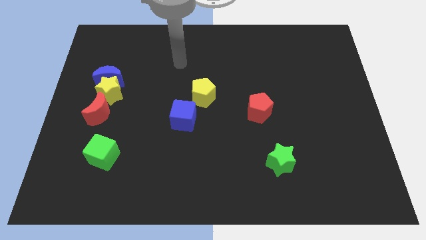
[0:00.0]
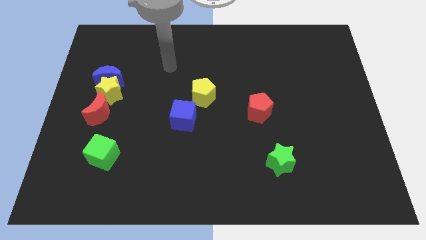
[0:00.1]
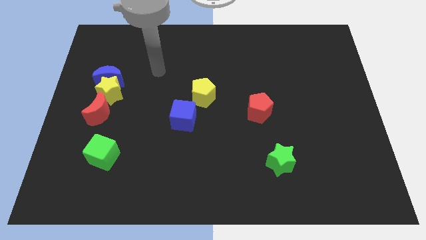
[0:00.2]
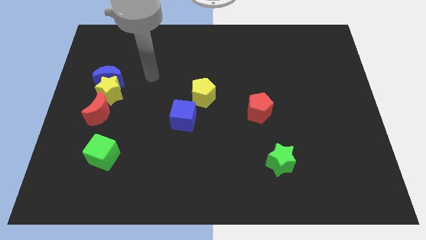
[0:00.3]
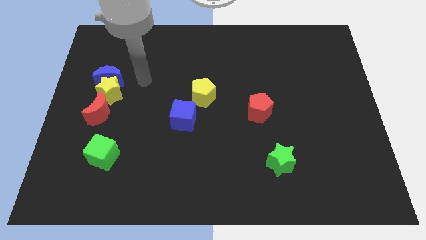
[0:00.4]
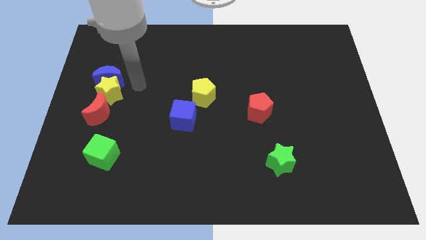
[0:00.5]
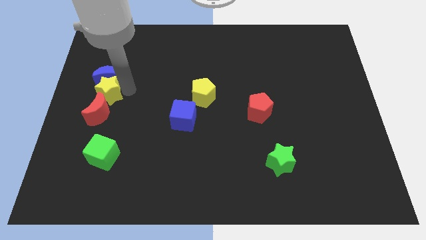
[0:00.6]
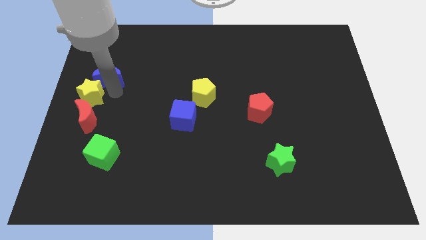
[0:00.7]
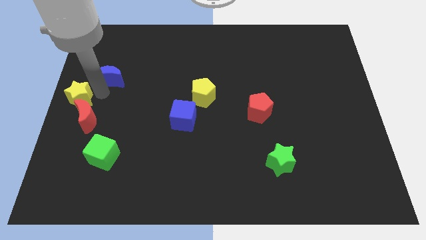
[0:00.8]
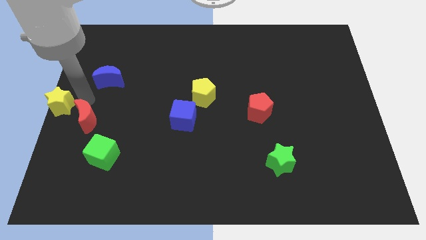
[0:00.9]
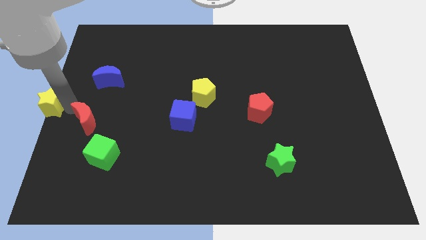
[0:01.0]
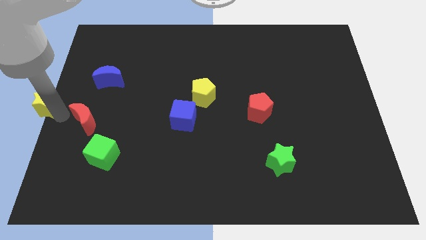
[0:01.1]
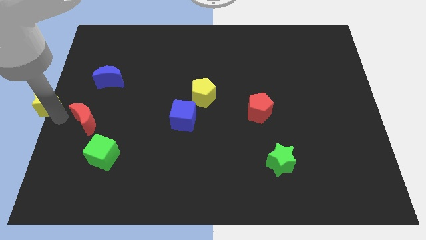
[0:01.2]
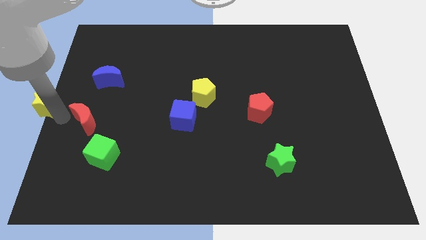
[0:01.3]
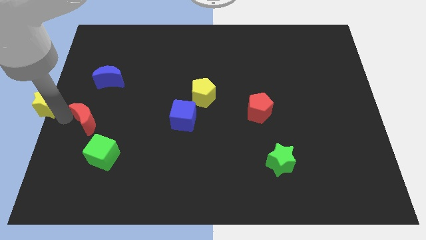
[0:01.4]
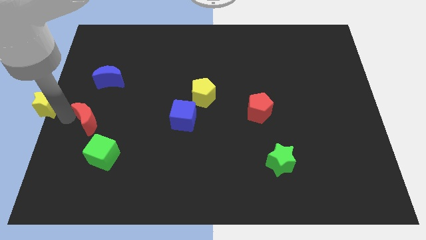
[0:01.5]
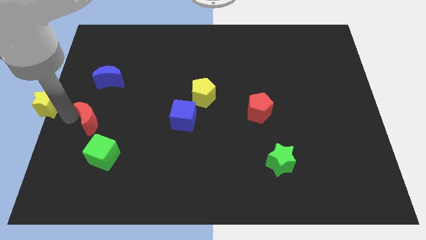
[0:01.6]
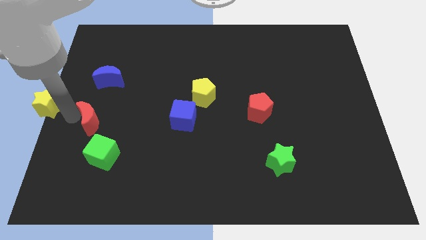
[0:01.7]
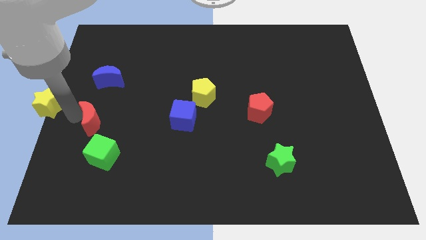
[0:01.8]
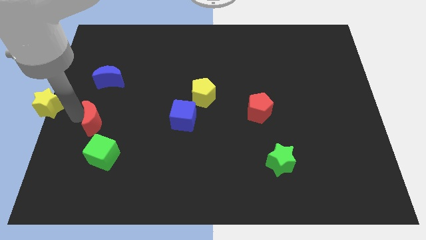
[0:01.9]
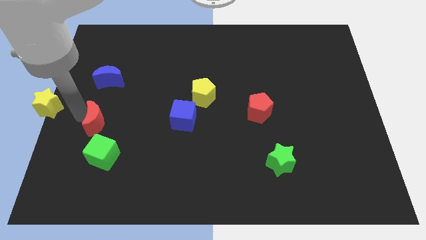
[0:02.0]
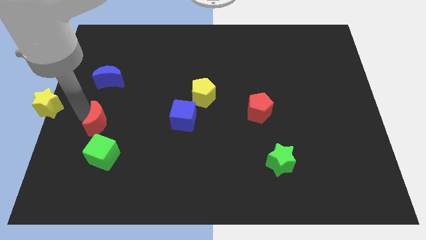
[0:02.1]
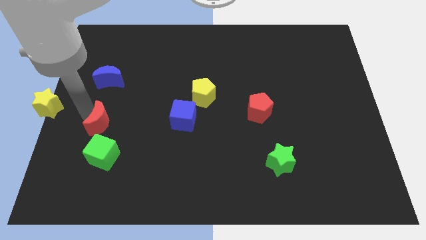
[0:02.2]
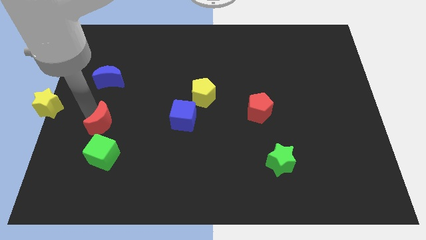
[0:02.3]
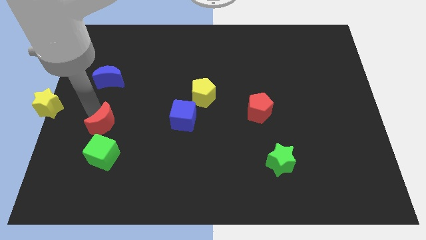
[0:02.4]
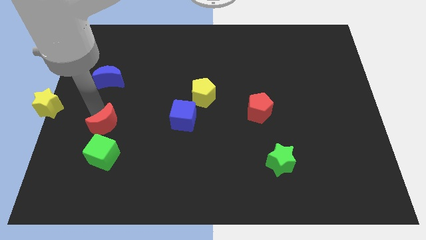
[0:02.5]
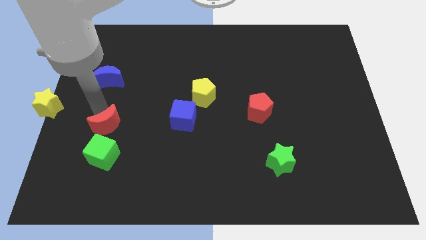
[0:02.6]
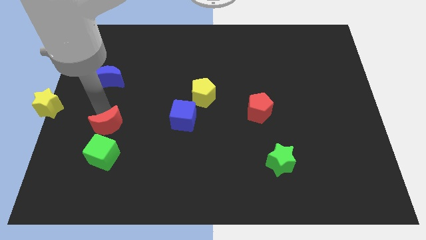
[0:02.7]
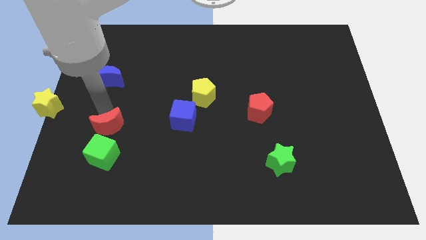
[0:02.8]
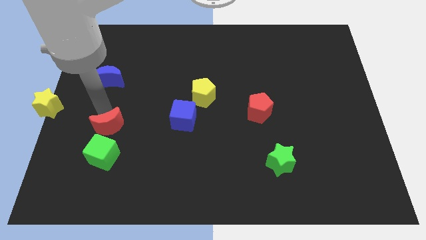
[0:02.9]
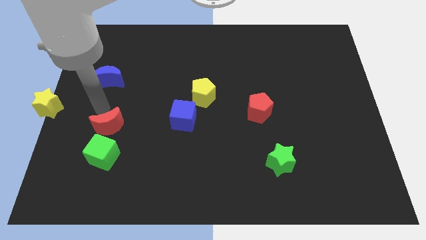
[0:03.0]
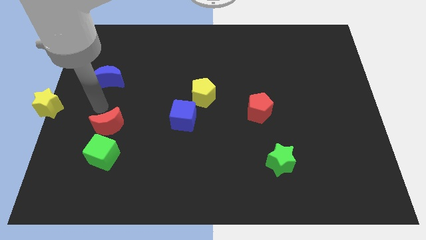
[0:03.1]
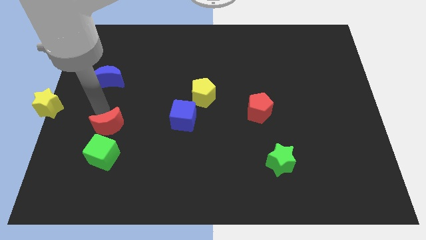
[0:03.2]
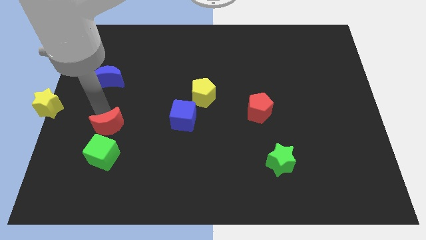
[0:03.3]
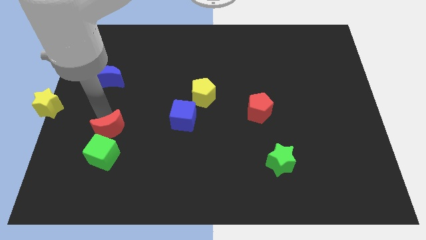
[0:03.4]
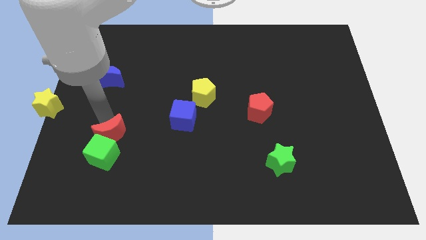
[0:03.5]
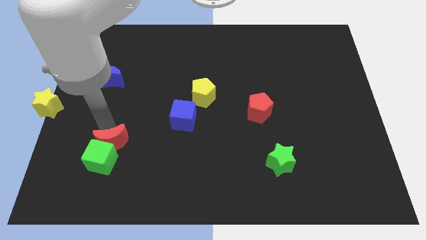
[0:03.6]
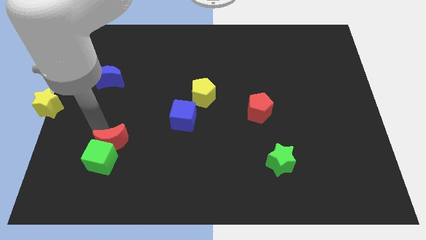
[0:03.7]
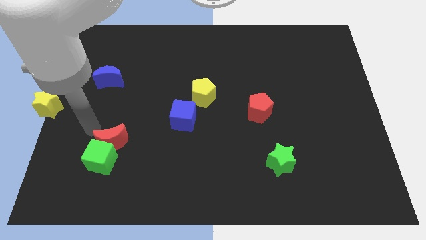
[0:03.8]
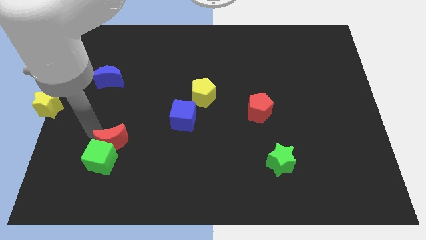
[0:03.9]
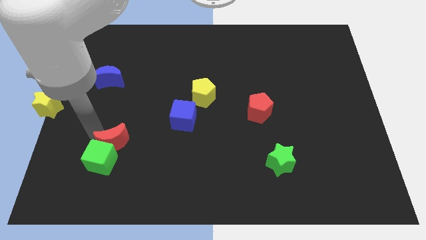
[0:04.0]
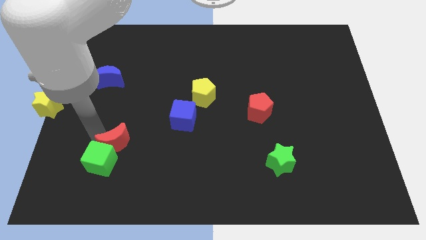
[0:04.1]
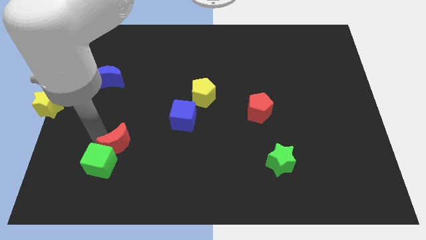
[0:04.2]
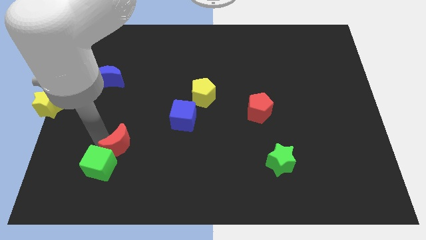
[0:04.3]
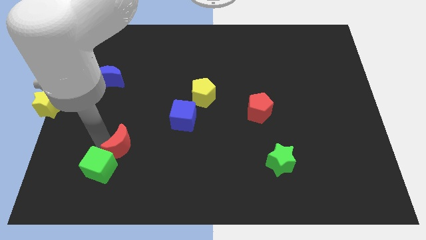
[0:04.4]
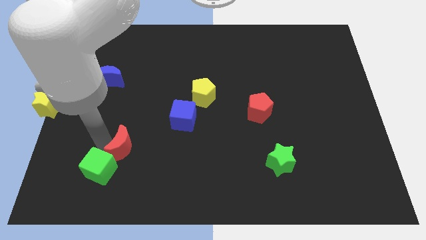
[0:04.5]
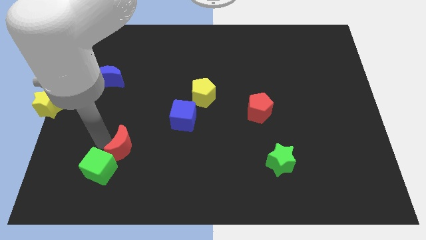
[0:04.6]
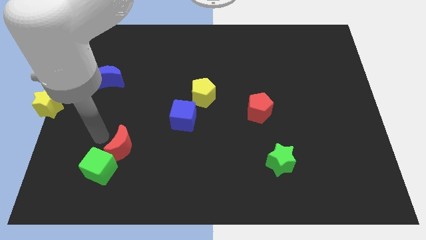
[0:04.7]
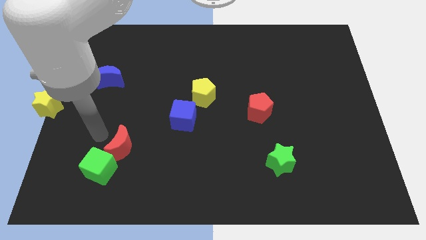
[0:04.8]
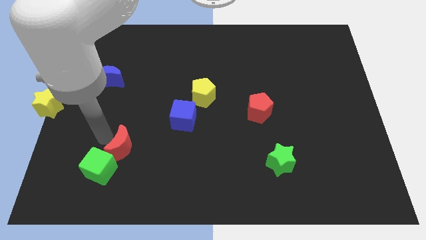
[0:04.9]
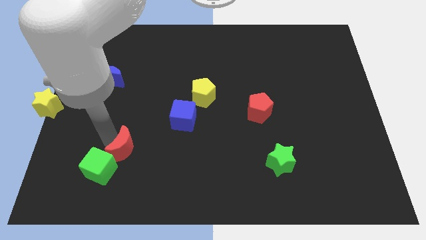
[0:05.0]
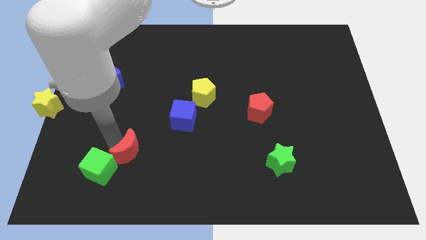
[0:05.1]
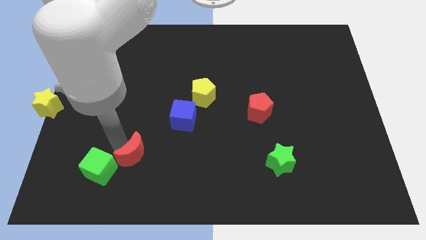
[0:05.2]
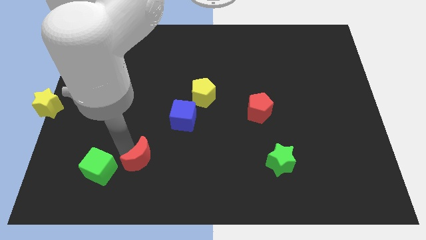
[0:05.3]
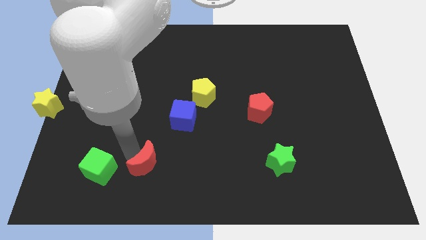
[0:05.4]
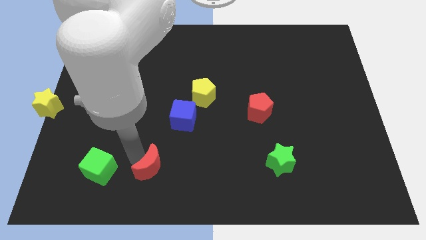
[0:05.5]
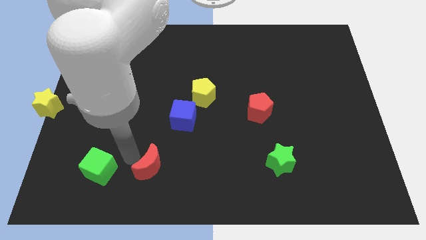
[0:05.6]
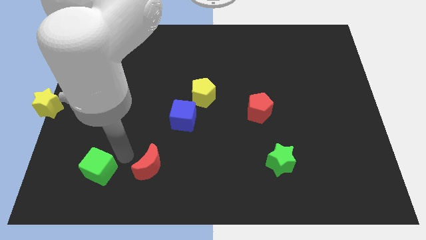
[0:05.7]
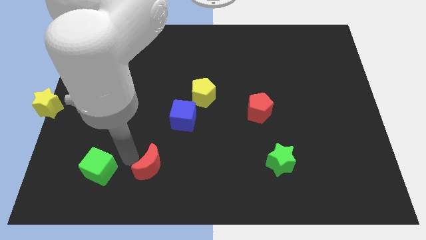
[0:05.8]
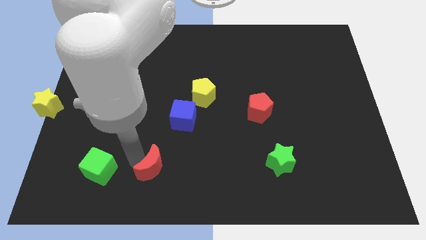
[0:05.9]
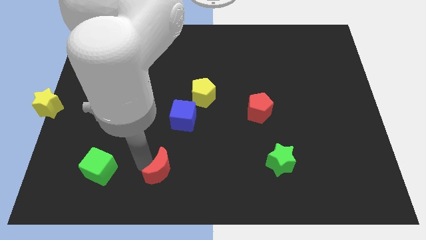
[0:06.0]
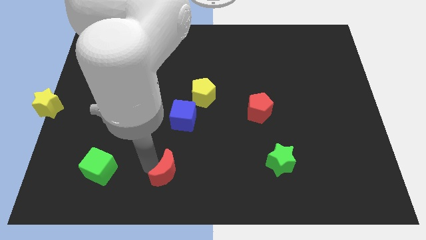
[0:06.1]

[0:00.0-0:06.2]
put the red moon to the bottom side
